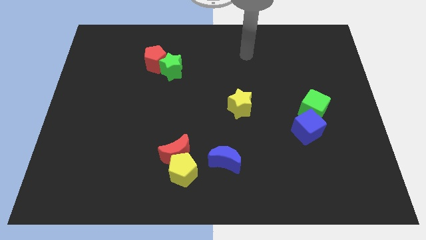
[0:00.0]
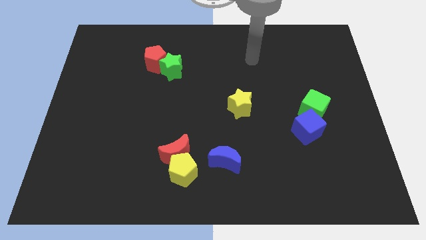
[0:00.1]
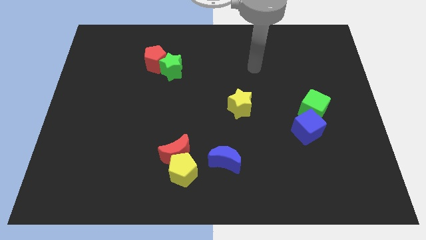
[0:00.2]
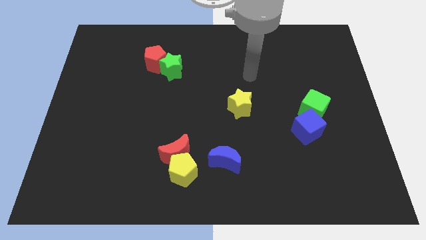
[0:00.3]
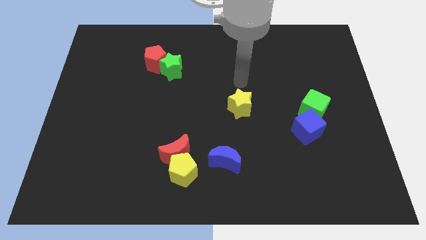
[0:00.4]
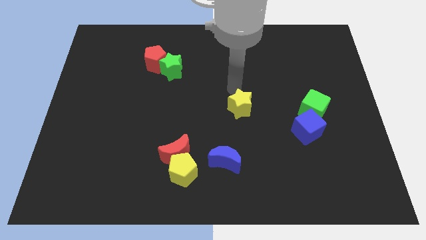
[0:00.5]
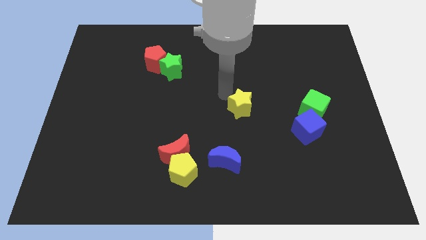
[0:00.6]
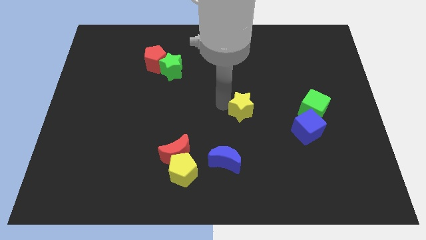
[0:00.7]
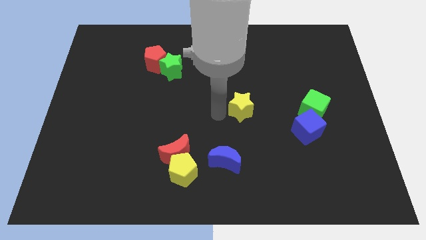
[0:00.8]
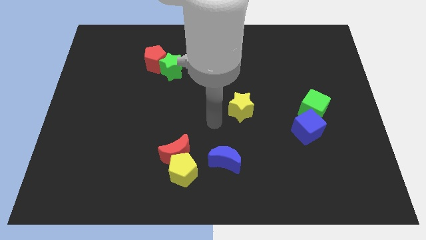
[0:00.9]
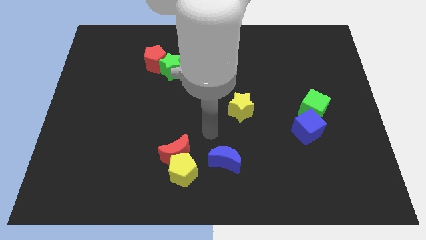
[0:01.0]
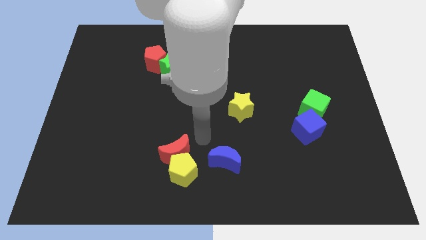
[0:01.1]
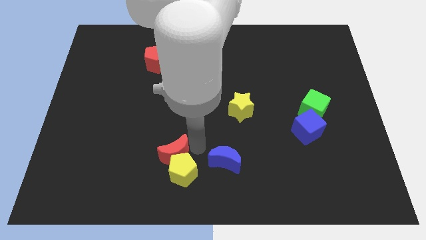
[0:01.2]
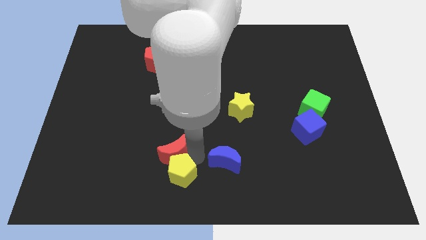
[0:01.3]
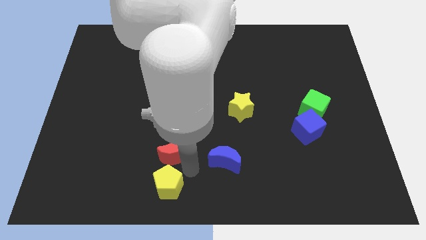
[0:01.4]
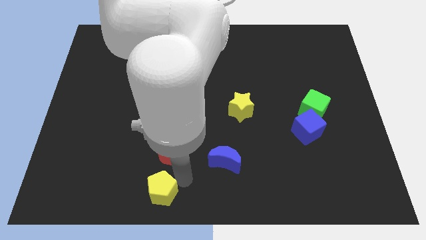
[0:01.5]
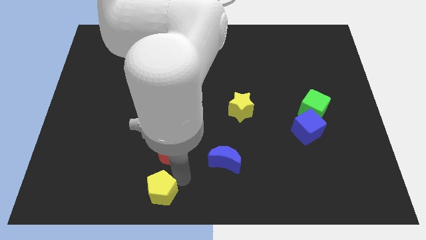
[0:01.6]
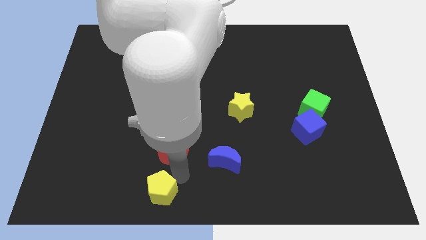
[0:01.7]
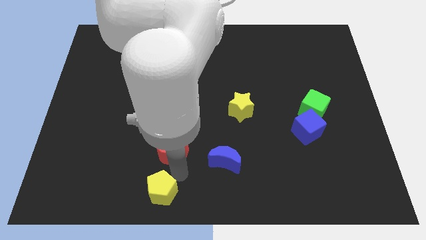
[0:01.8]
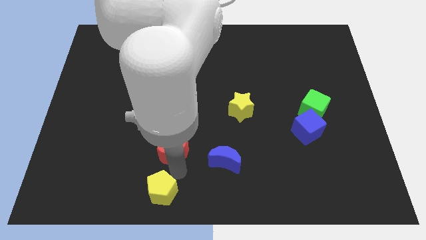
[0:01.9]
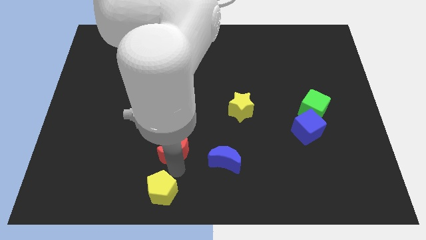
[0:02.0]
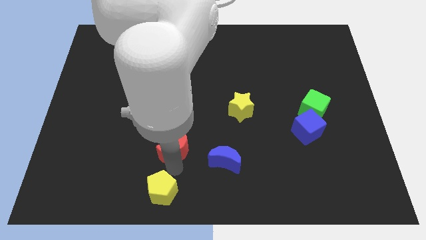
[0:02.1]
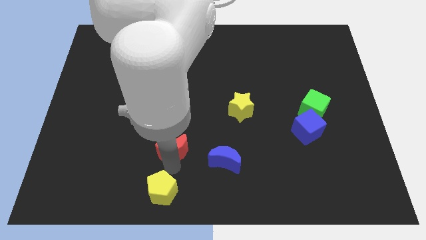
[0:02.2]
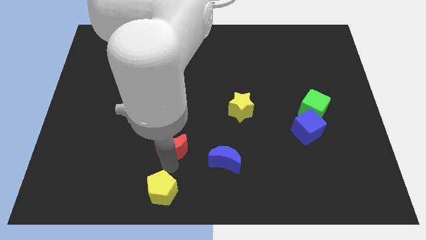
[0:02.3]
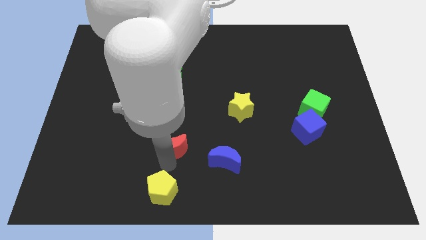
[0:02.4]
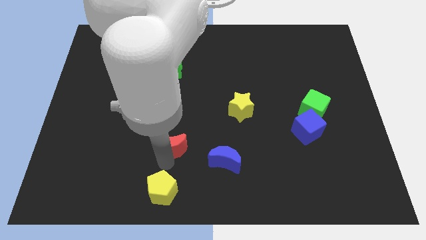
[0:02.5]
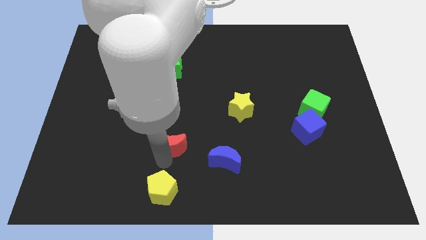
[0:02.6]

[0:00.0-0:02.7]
separate the red moon from the yellow pentagon

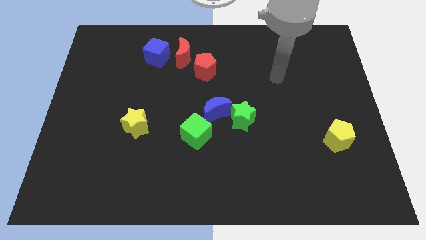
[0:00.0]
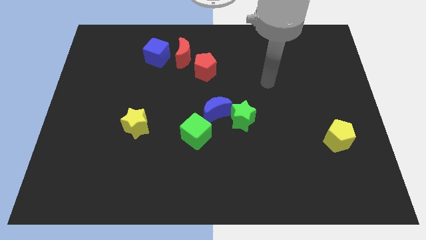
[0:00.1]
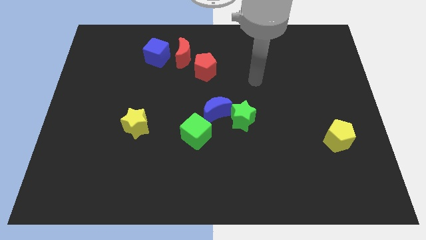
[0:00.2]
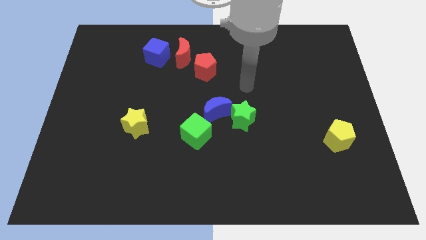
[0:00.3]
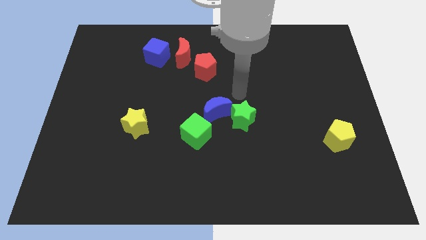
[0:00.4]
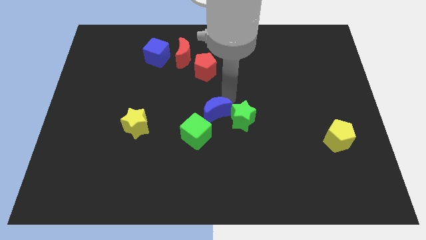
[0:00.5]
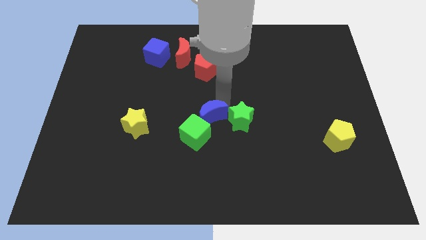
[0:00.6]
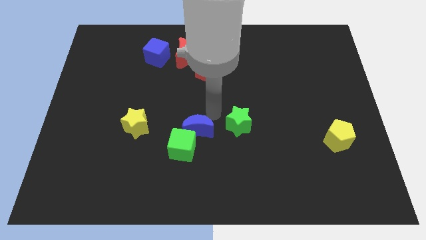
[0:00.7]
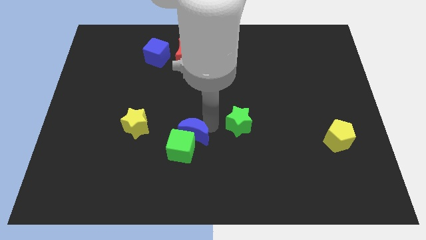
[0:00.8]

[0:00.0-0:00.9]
pull the green star apart from the blue moon

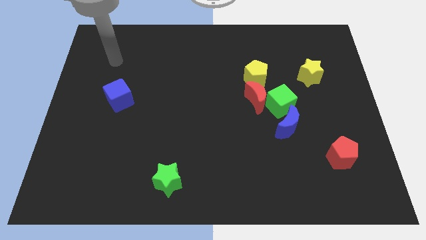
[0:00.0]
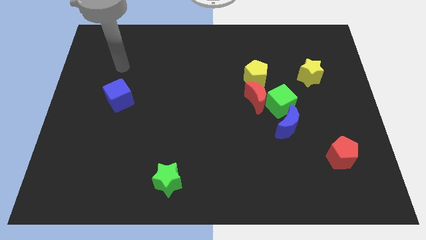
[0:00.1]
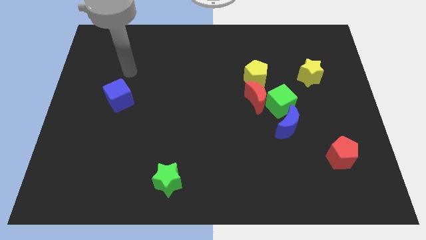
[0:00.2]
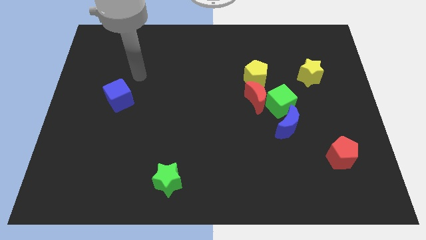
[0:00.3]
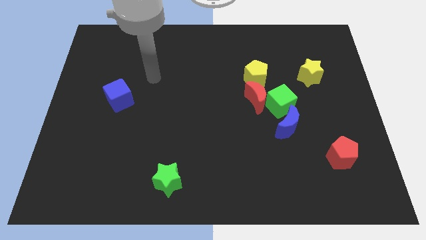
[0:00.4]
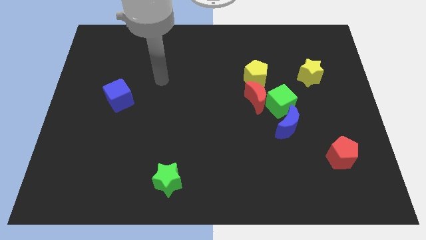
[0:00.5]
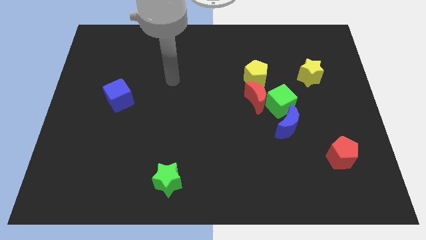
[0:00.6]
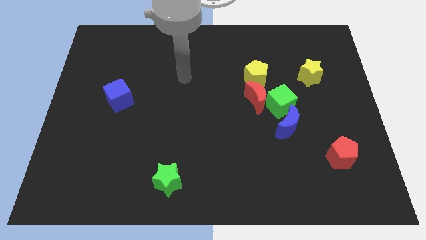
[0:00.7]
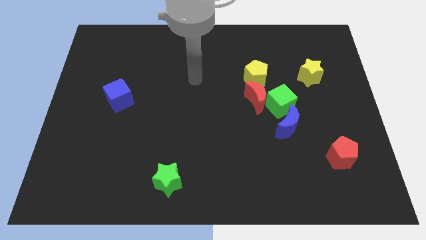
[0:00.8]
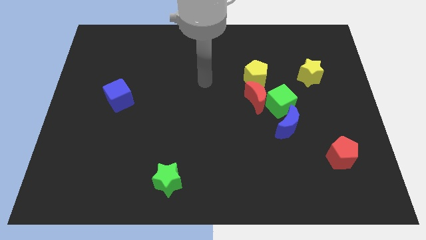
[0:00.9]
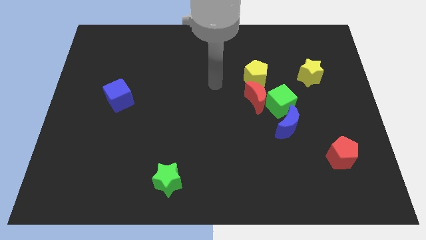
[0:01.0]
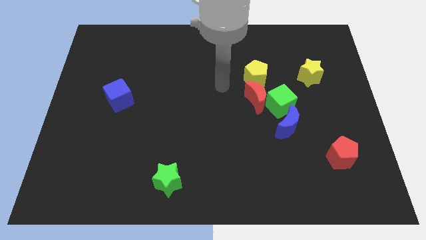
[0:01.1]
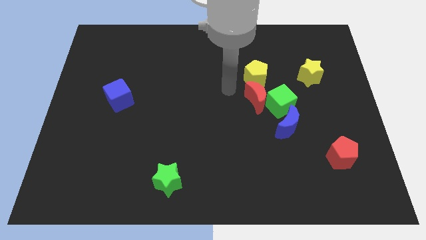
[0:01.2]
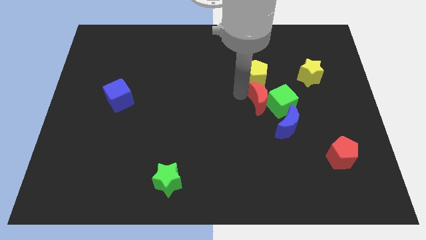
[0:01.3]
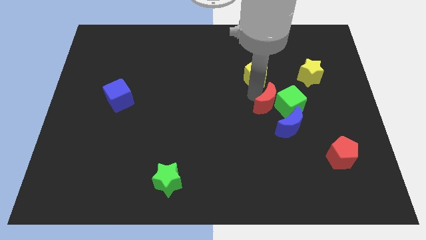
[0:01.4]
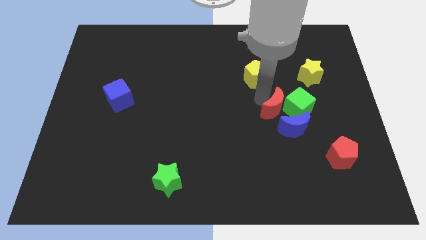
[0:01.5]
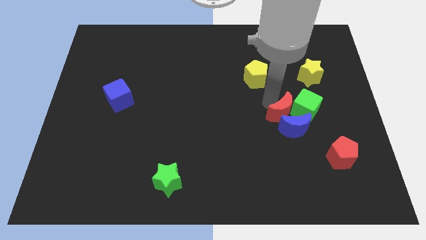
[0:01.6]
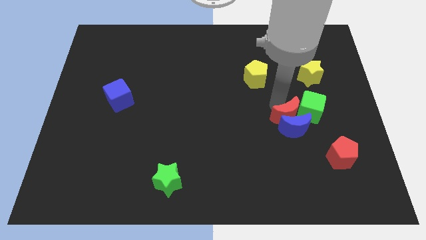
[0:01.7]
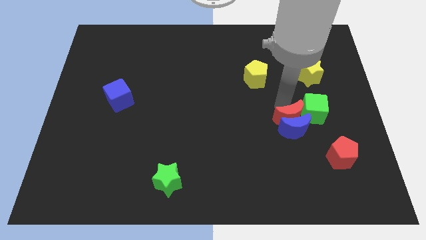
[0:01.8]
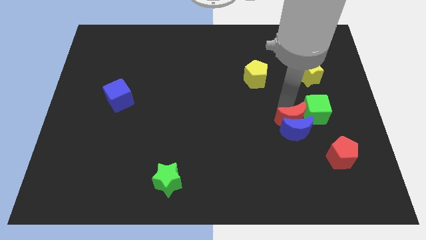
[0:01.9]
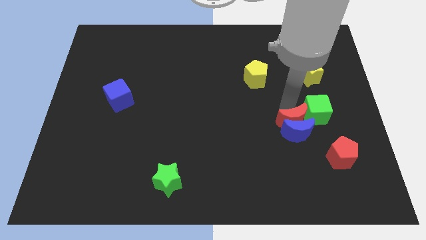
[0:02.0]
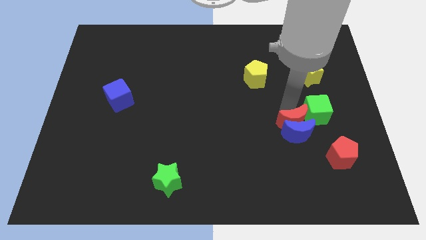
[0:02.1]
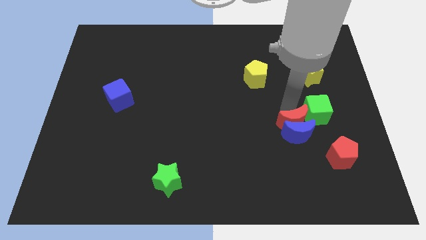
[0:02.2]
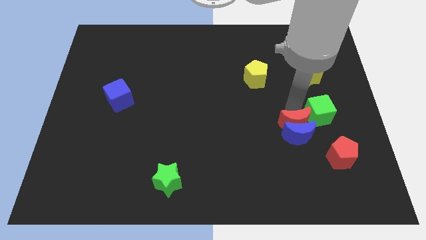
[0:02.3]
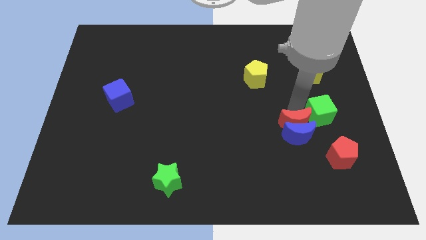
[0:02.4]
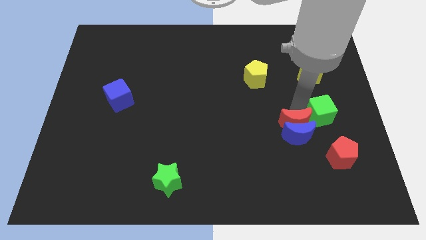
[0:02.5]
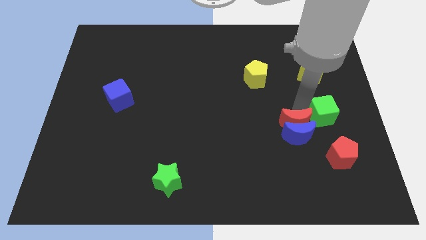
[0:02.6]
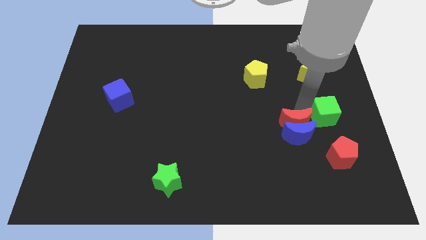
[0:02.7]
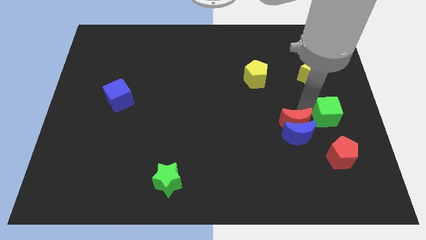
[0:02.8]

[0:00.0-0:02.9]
separate the green cube from the group

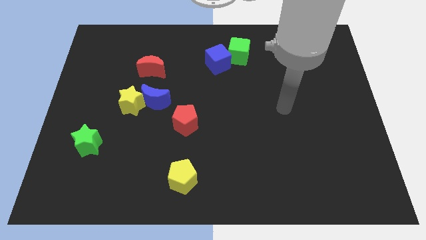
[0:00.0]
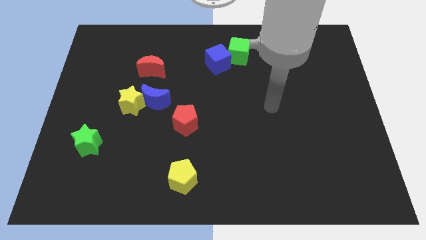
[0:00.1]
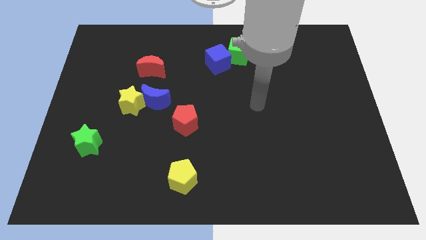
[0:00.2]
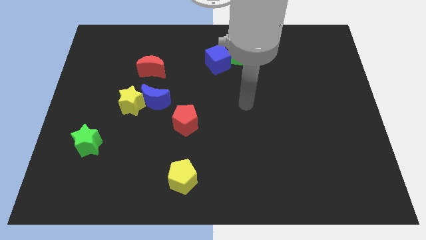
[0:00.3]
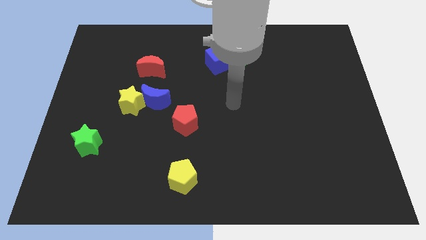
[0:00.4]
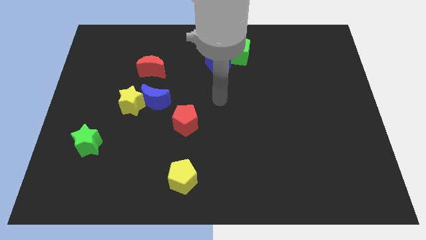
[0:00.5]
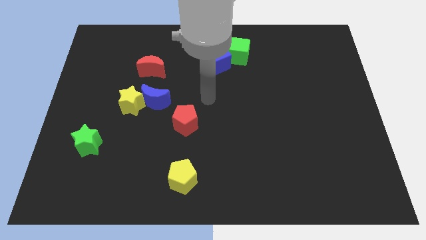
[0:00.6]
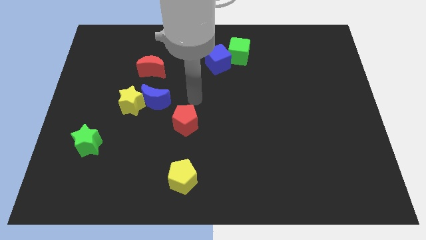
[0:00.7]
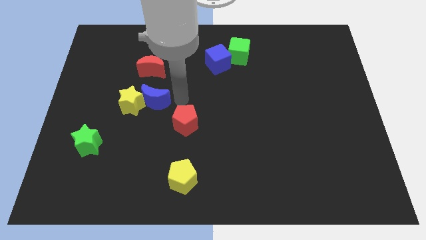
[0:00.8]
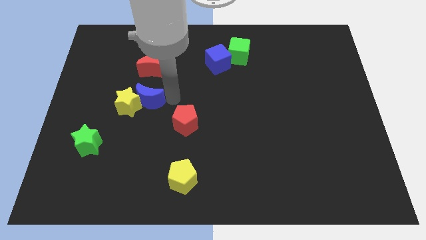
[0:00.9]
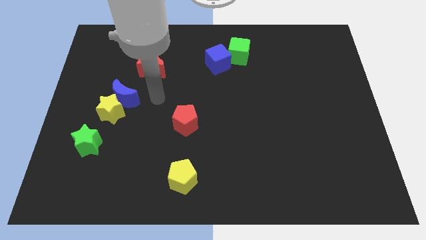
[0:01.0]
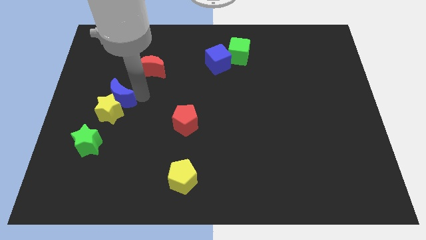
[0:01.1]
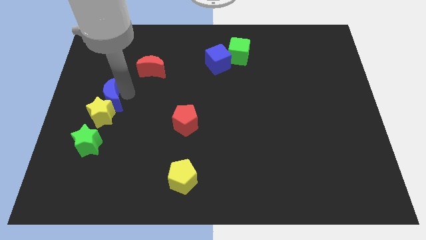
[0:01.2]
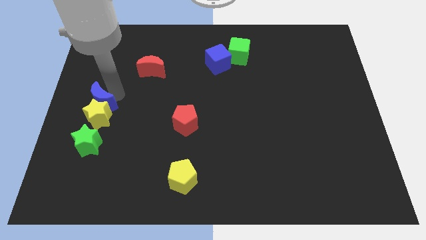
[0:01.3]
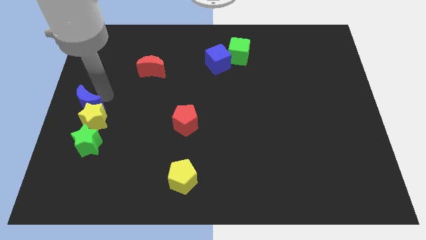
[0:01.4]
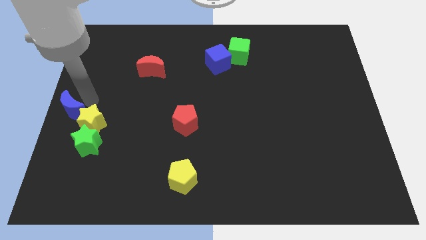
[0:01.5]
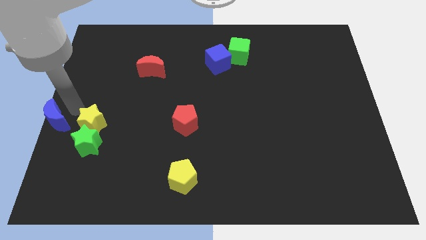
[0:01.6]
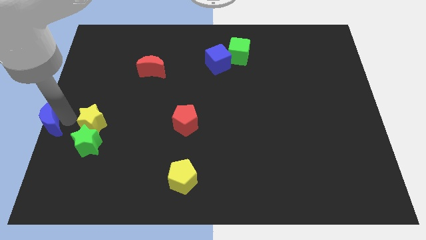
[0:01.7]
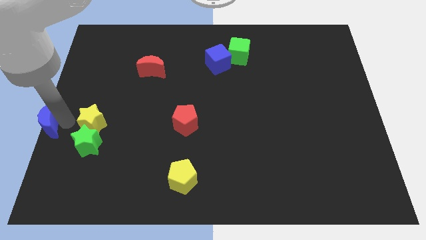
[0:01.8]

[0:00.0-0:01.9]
pull the yellow star apart from the blue moon

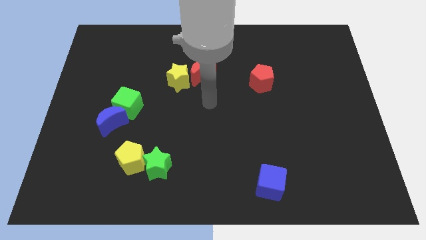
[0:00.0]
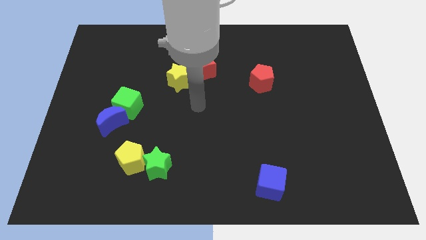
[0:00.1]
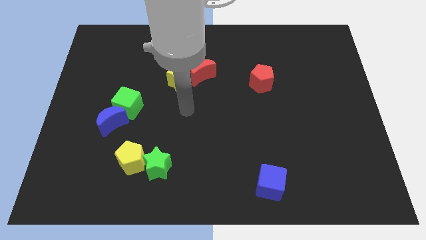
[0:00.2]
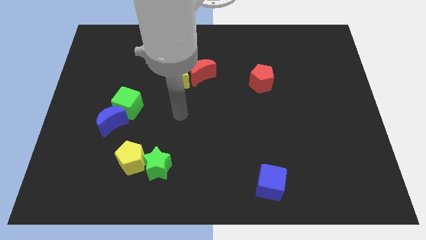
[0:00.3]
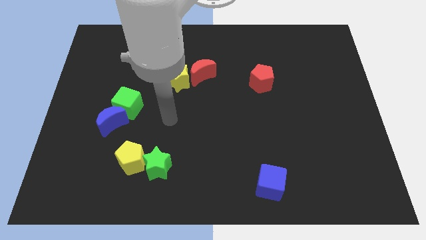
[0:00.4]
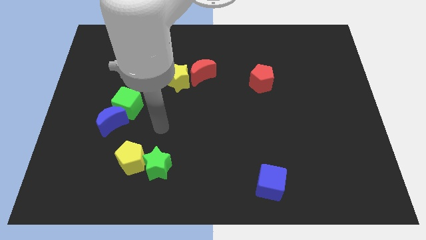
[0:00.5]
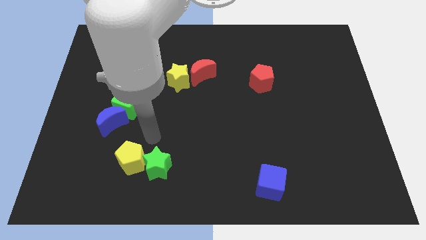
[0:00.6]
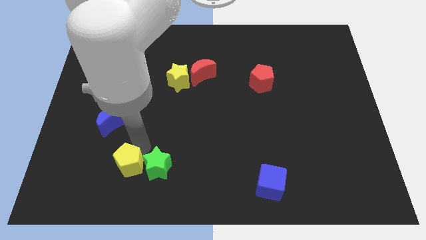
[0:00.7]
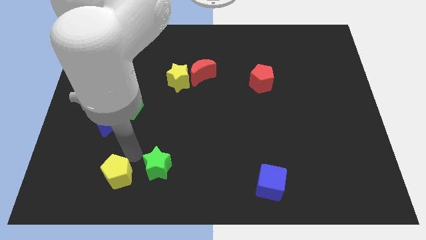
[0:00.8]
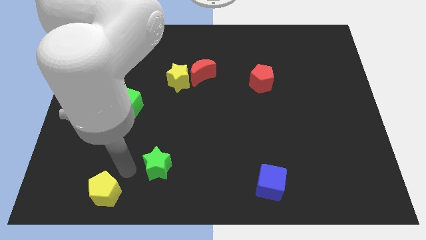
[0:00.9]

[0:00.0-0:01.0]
pull the green star apart from the yellow pentagon
